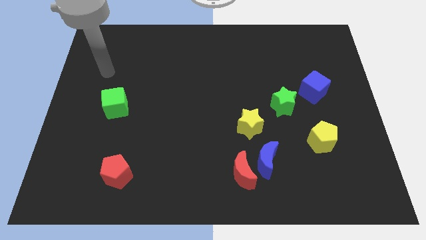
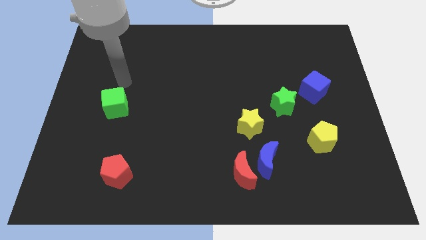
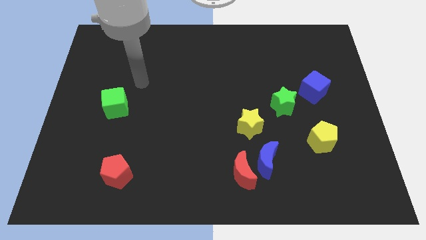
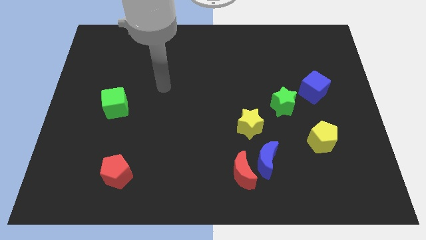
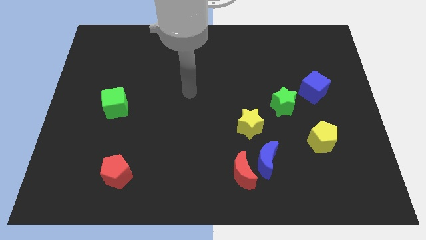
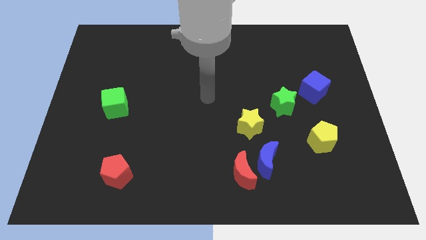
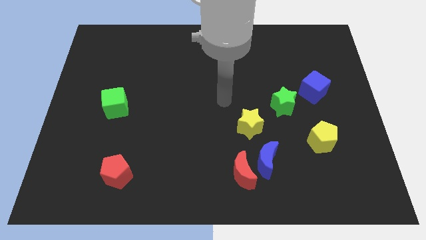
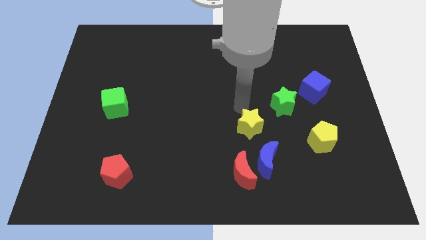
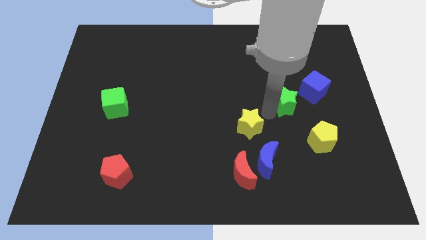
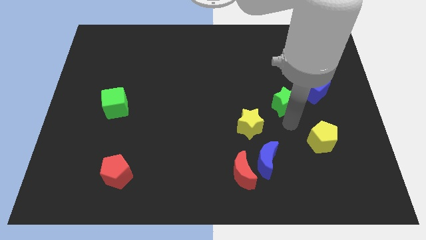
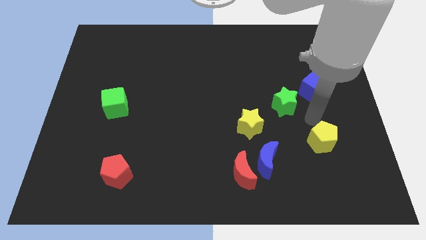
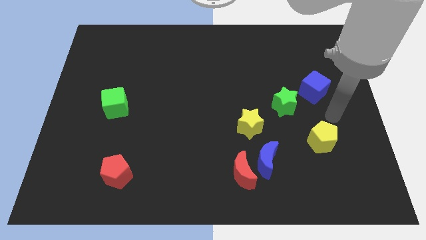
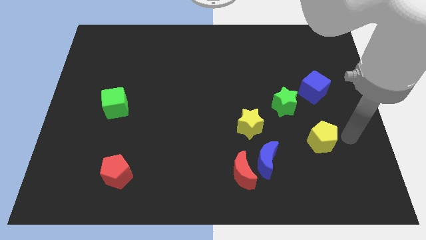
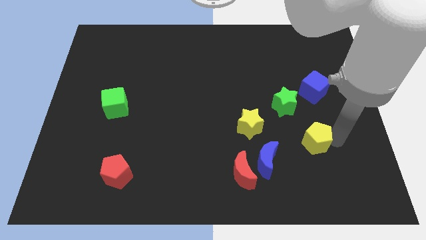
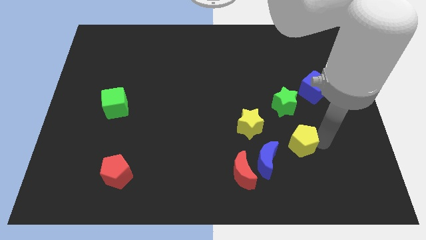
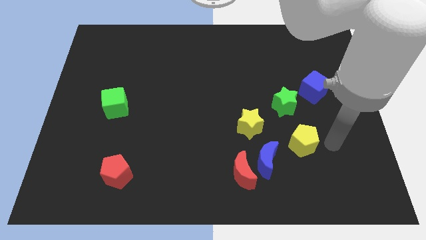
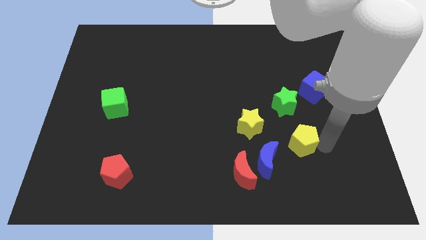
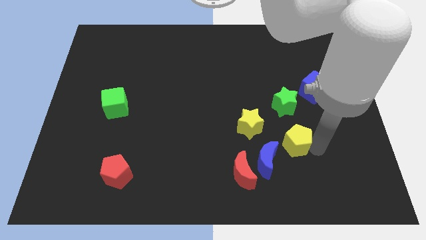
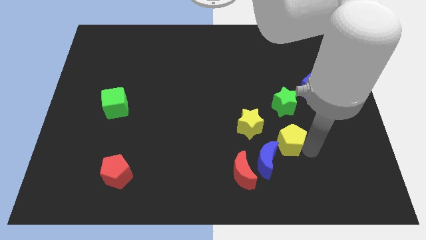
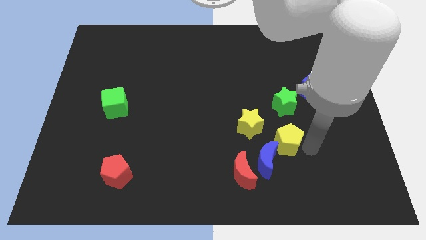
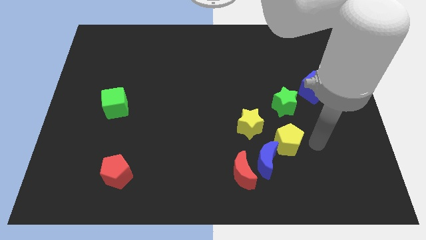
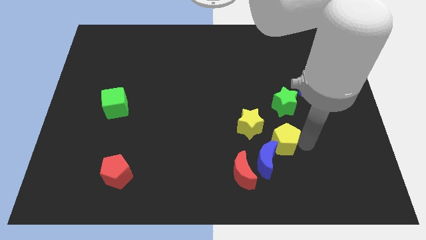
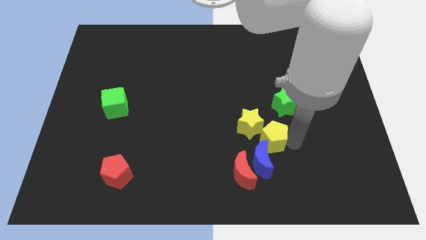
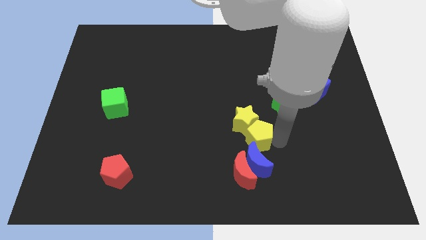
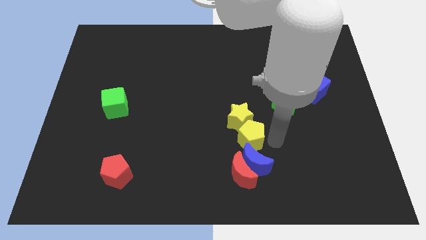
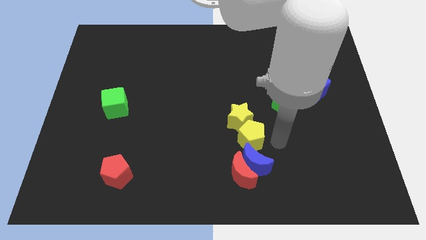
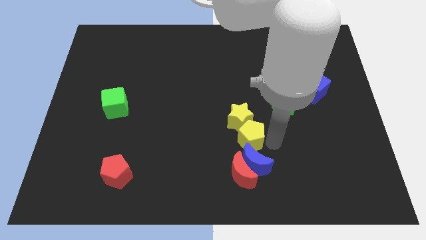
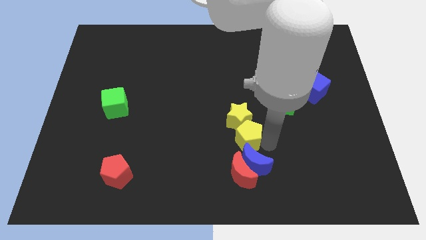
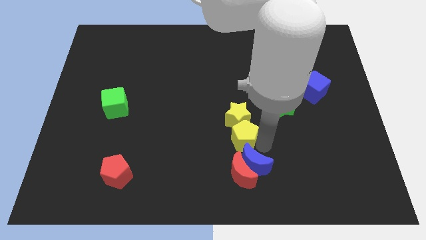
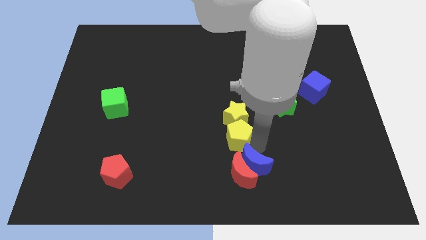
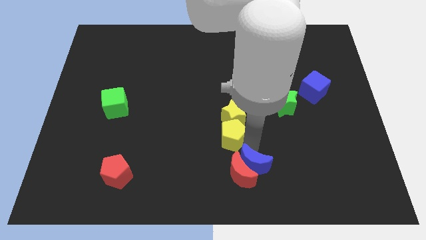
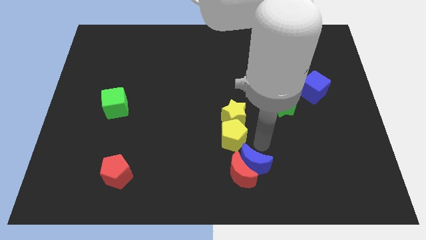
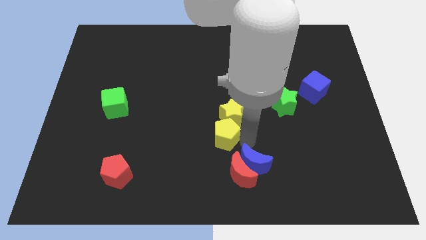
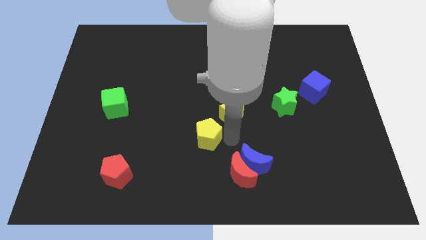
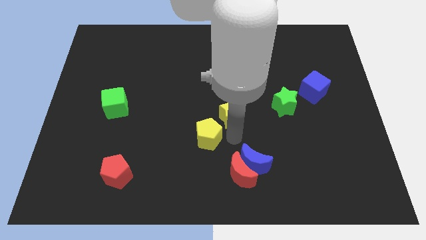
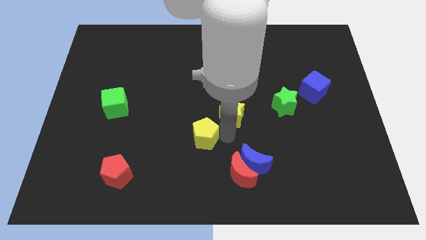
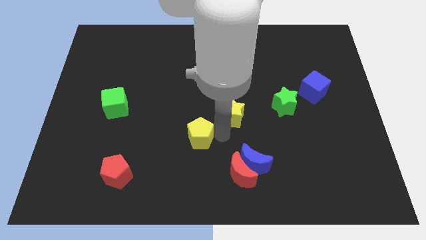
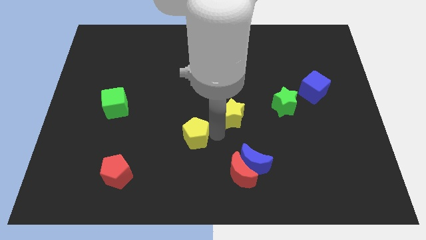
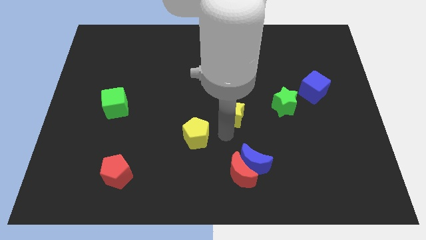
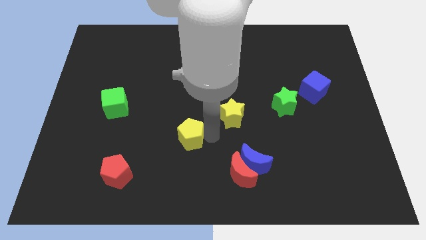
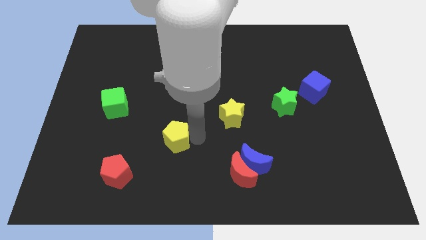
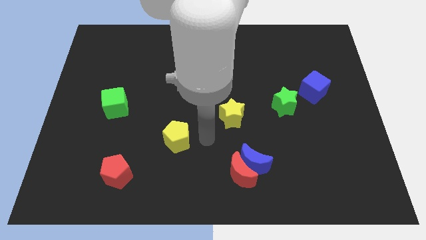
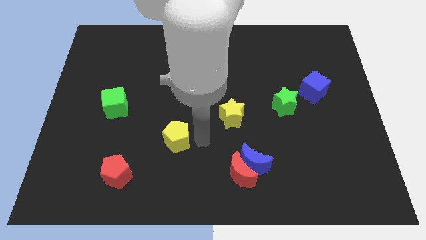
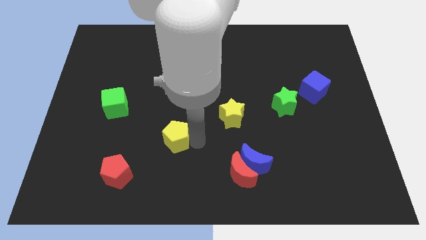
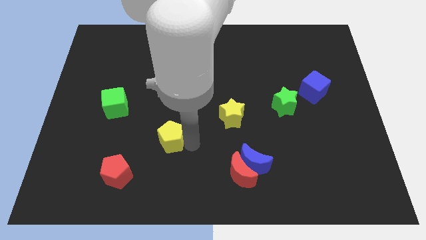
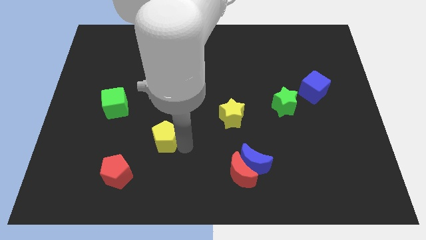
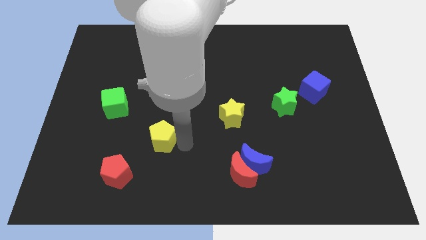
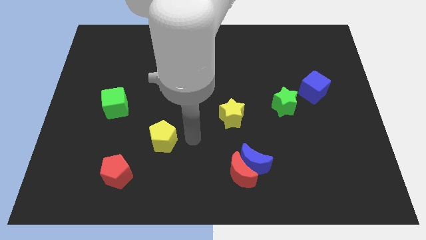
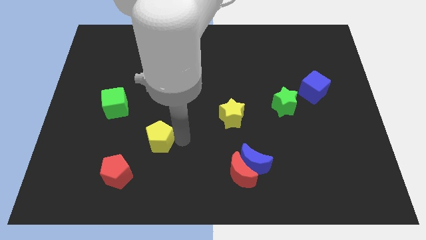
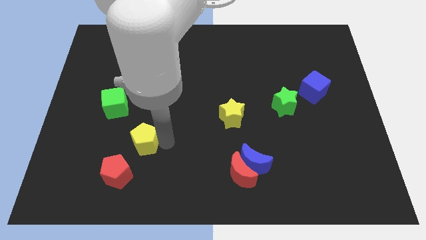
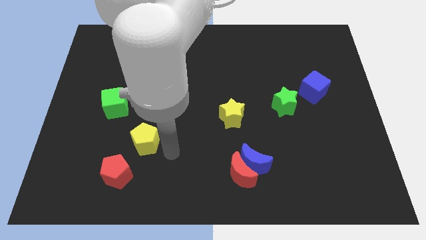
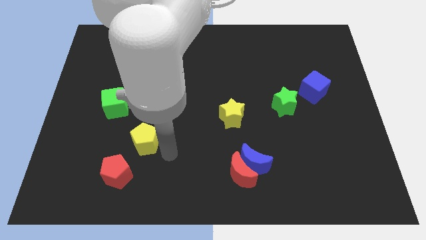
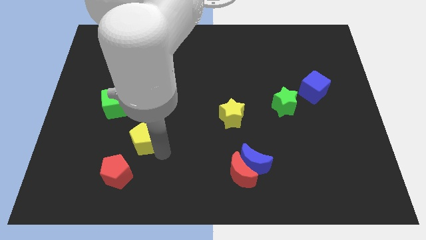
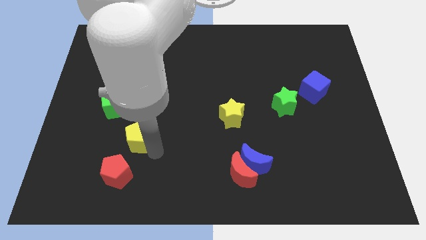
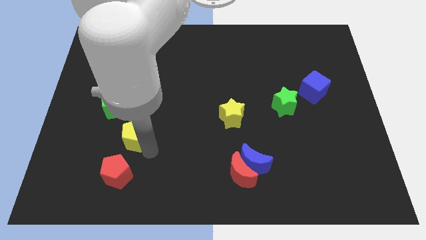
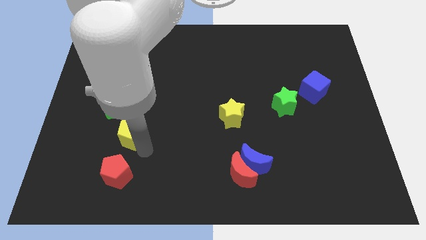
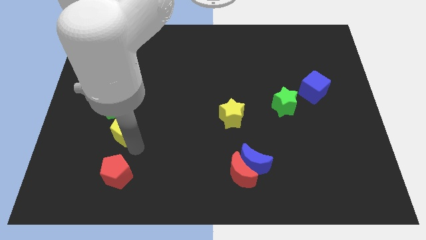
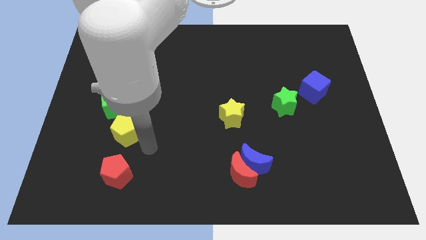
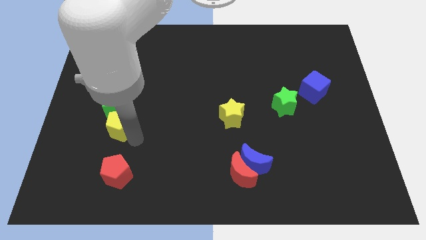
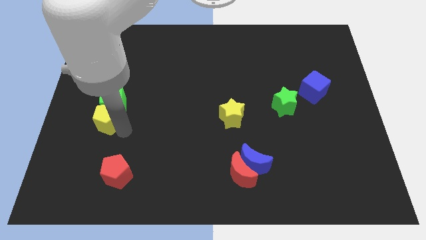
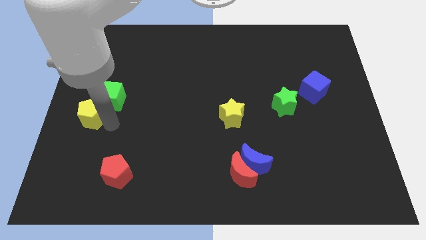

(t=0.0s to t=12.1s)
put the yellow pentagon to the left side of the board

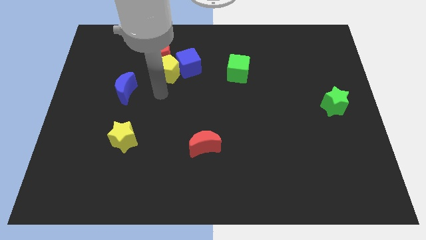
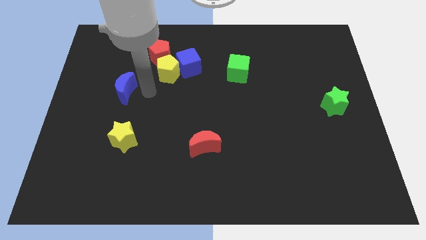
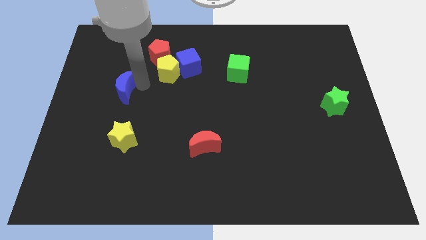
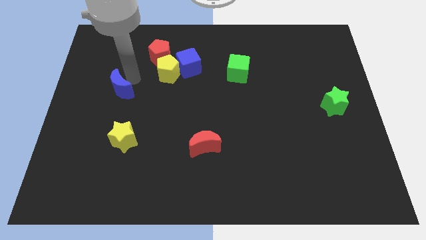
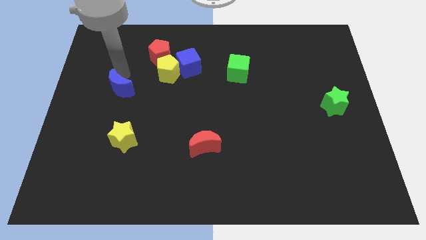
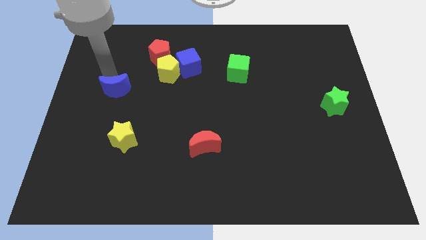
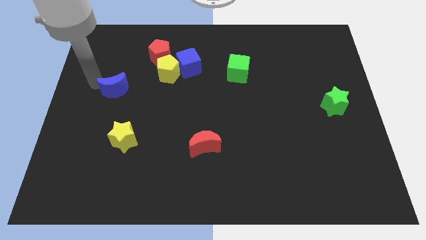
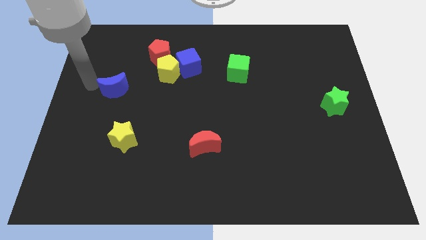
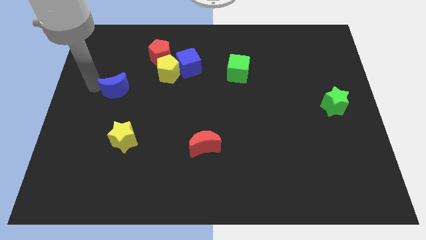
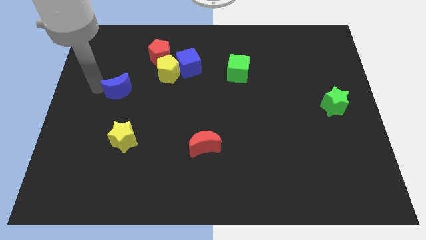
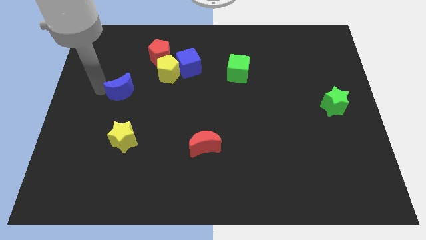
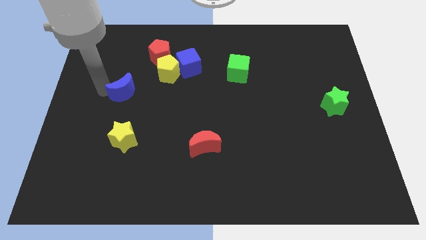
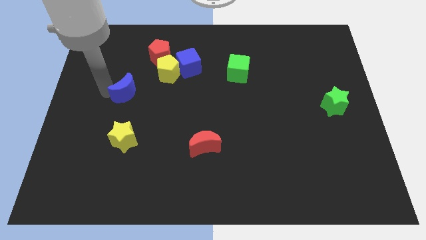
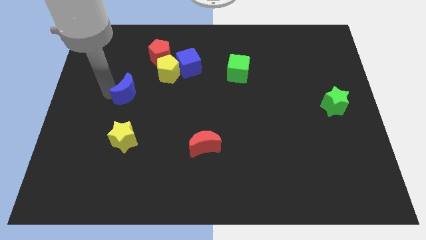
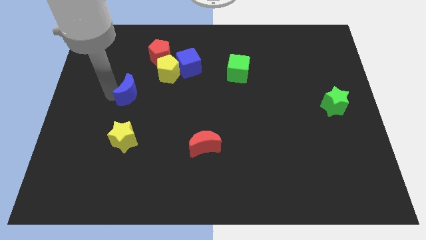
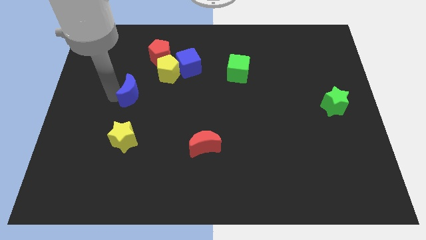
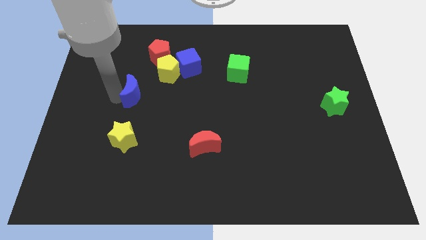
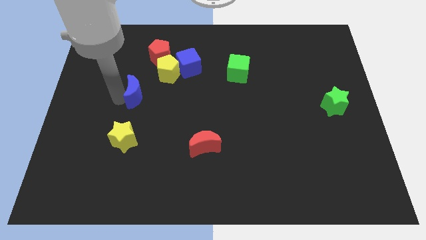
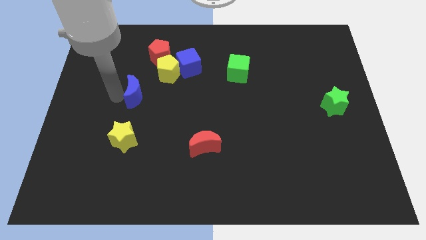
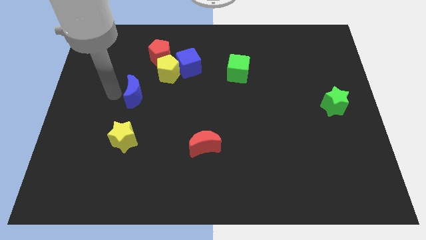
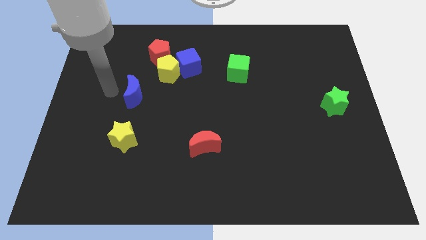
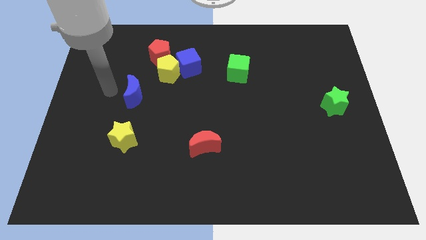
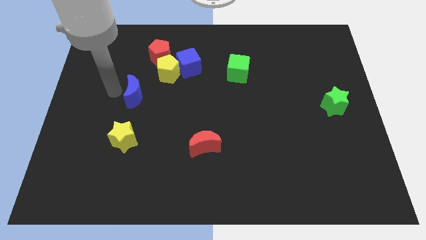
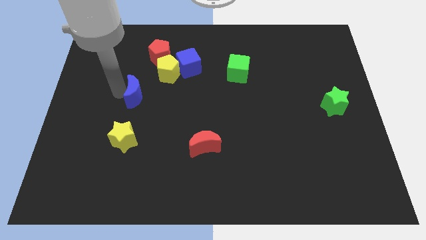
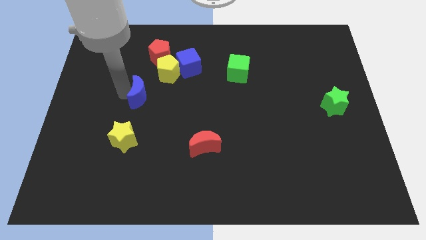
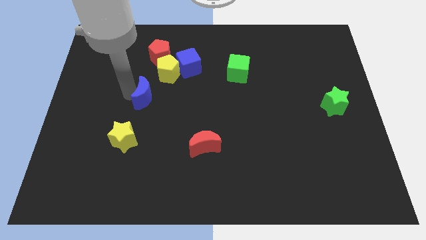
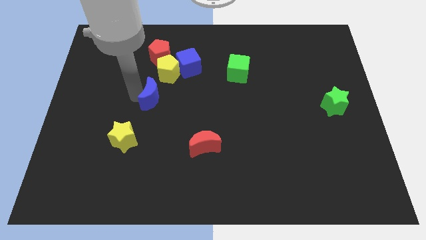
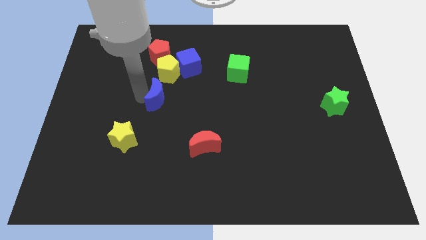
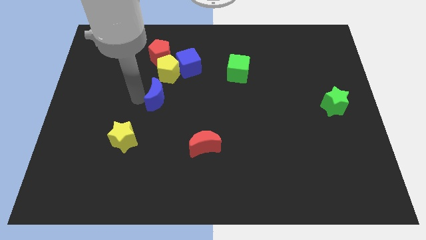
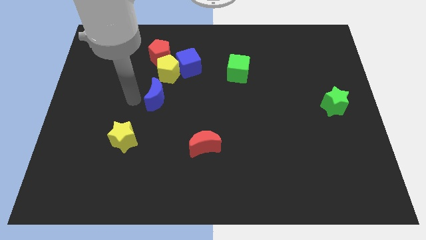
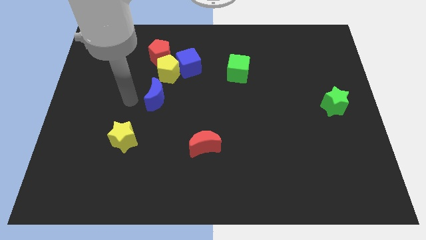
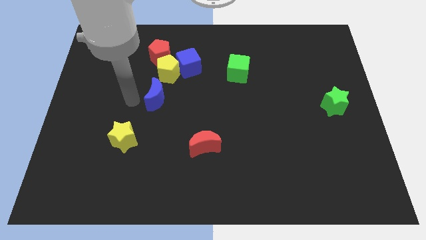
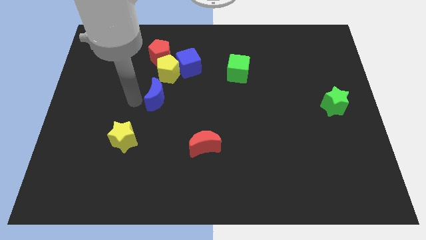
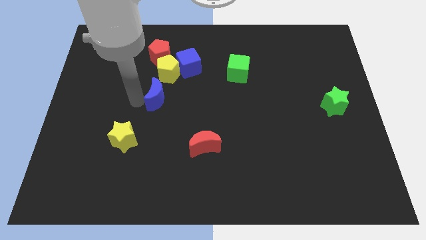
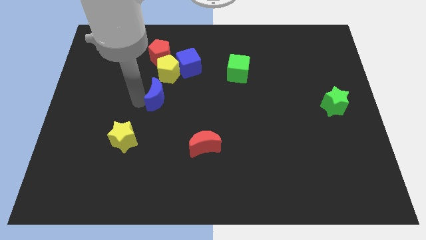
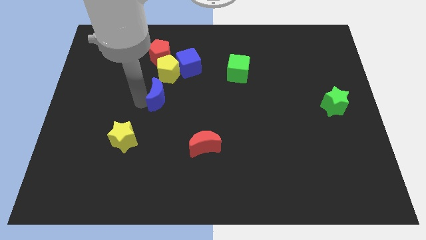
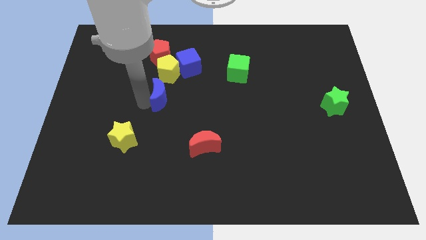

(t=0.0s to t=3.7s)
push the blue moon to the middle
